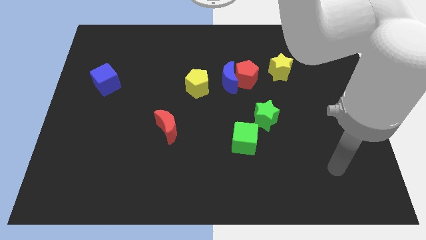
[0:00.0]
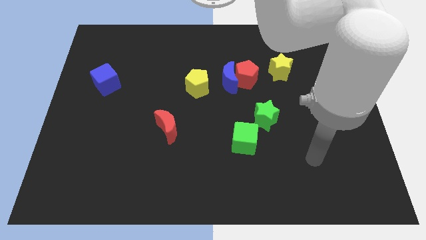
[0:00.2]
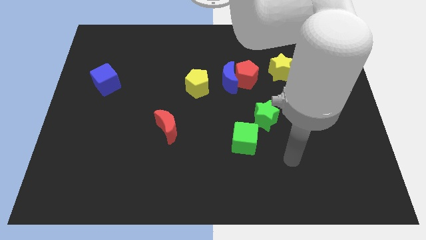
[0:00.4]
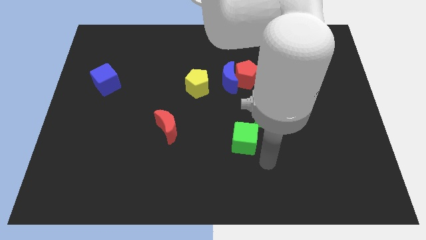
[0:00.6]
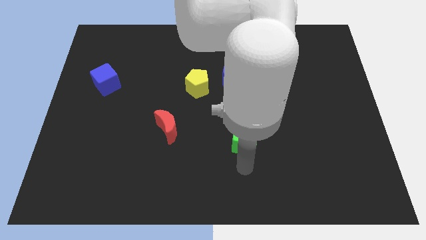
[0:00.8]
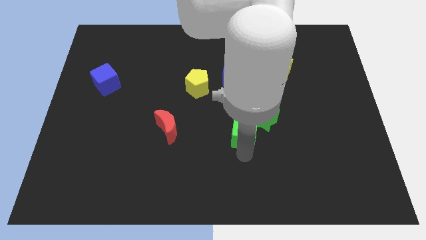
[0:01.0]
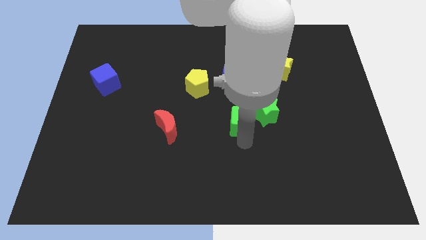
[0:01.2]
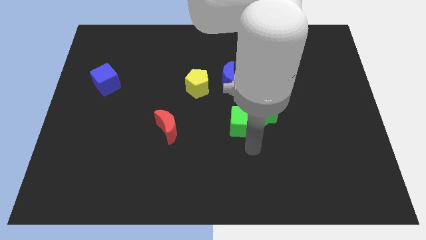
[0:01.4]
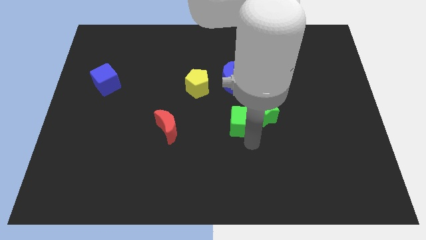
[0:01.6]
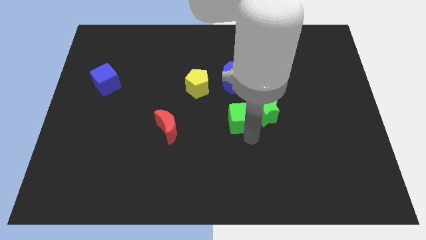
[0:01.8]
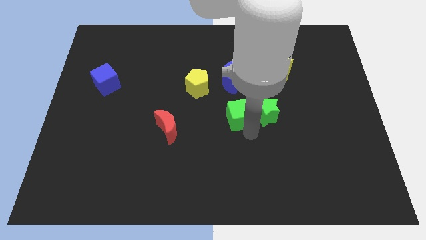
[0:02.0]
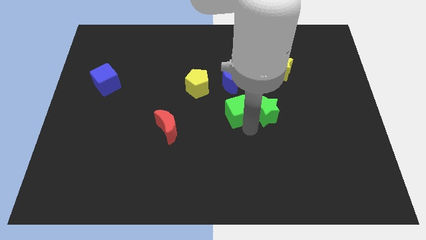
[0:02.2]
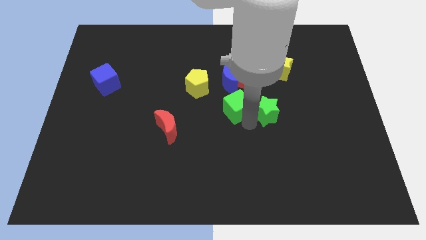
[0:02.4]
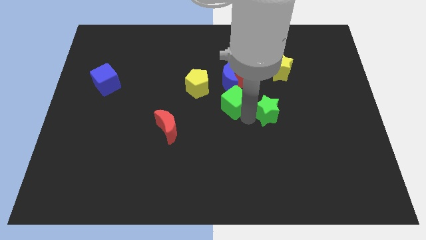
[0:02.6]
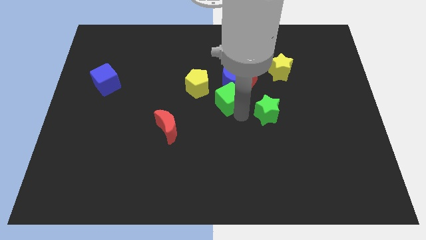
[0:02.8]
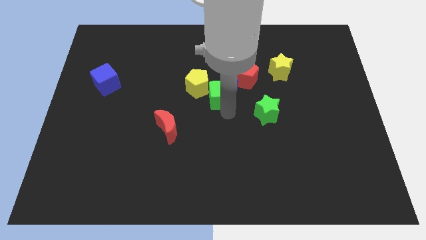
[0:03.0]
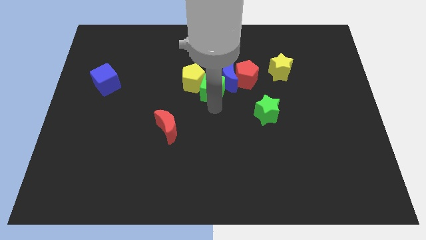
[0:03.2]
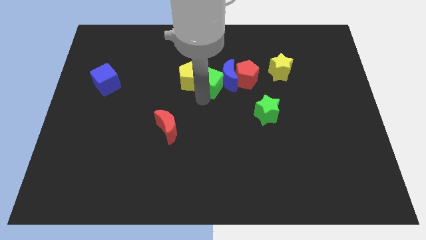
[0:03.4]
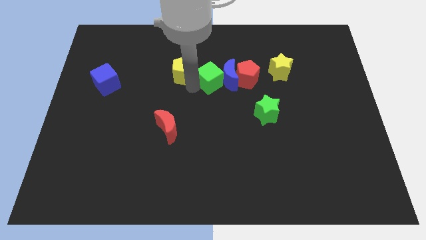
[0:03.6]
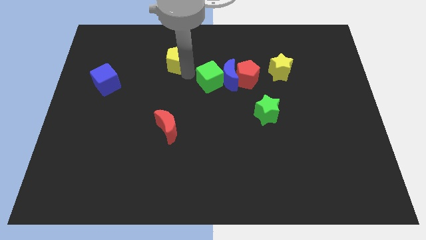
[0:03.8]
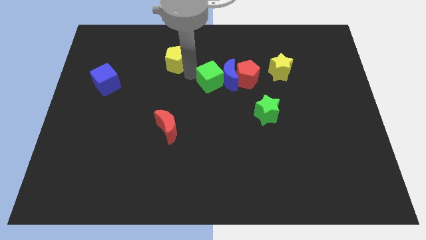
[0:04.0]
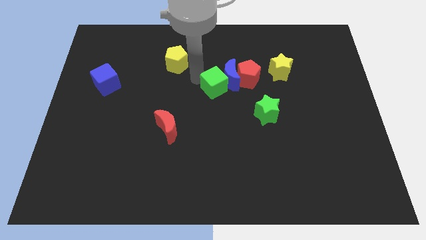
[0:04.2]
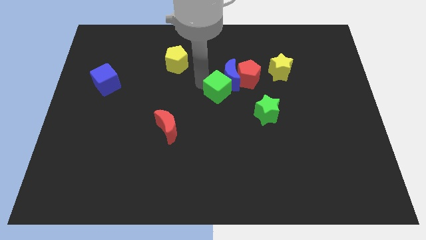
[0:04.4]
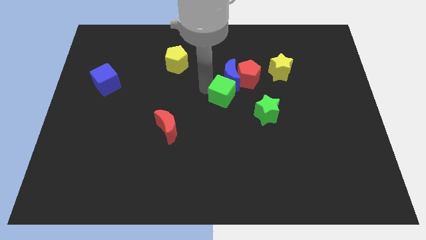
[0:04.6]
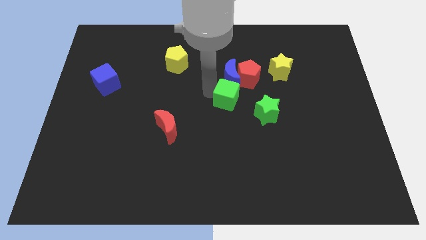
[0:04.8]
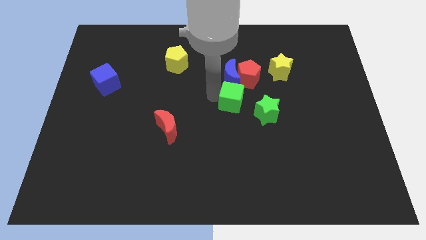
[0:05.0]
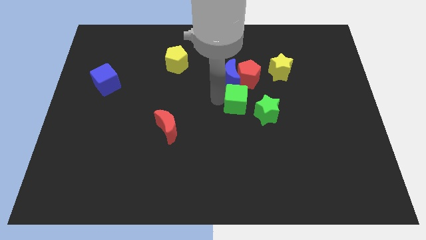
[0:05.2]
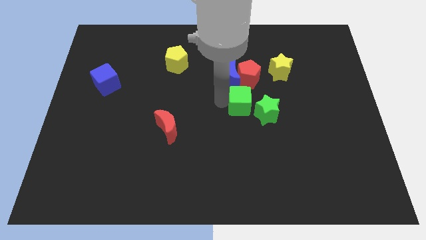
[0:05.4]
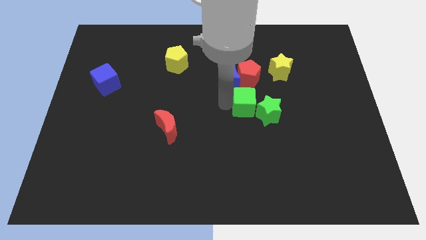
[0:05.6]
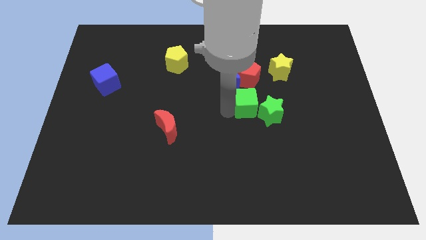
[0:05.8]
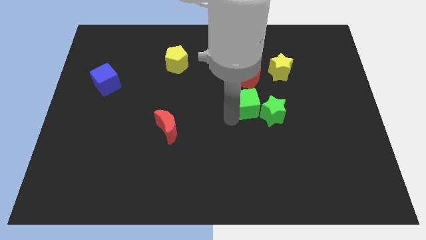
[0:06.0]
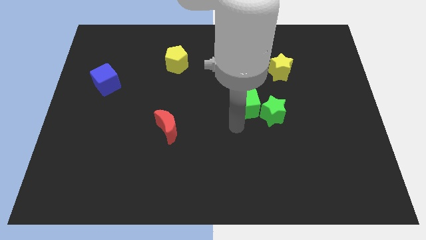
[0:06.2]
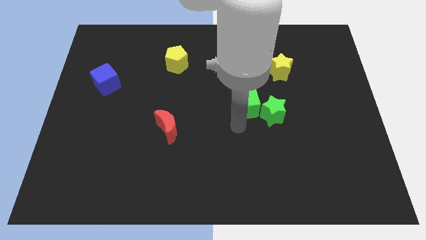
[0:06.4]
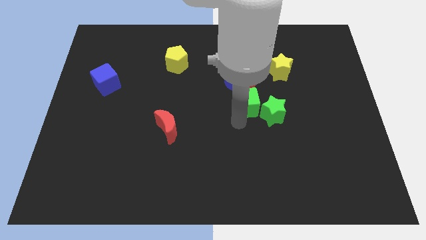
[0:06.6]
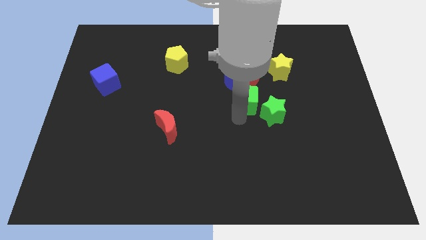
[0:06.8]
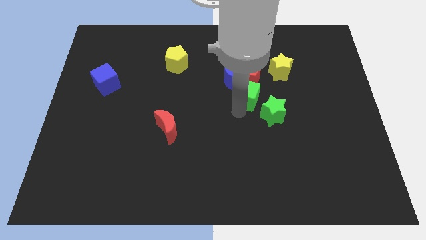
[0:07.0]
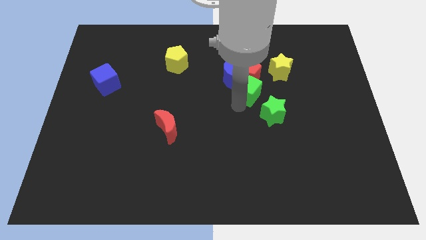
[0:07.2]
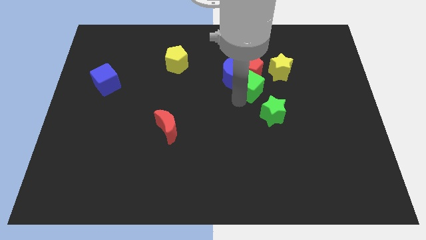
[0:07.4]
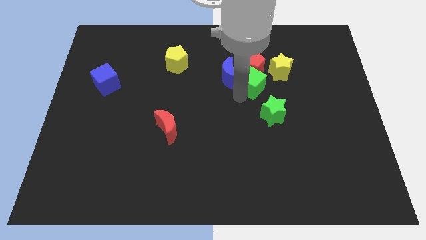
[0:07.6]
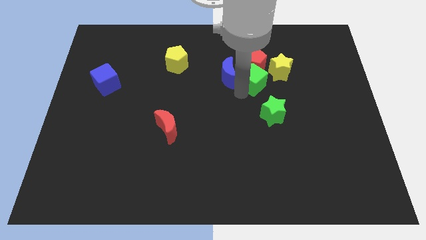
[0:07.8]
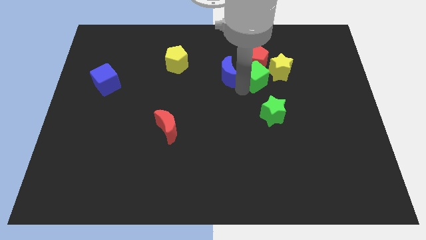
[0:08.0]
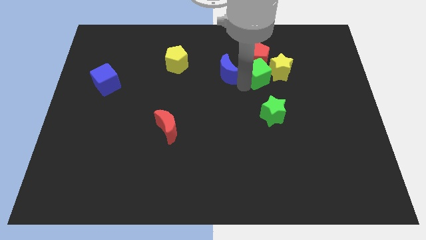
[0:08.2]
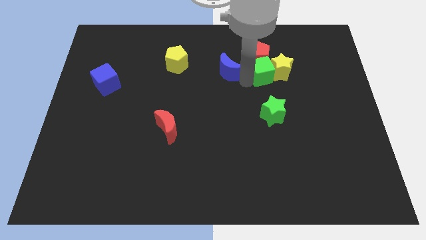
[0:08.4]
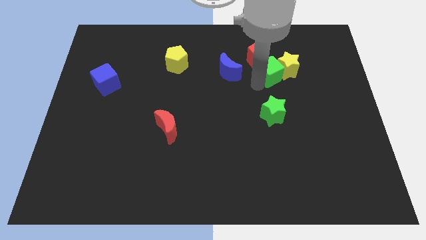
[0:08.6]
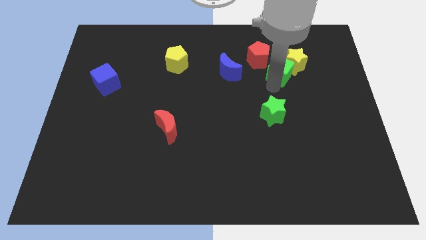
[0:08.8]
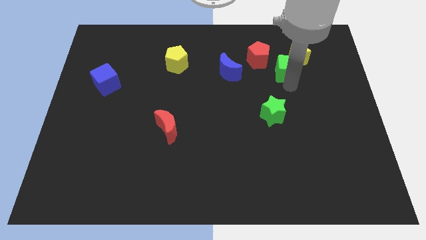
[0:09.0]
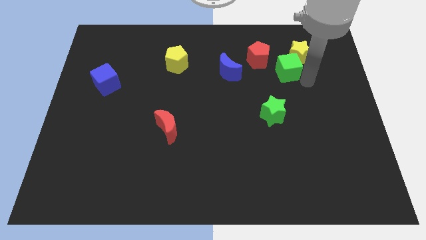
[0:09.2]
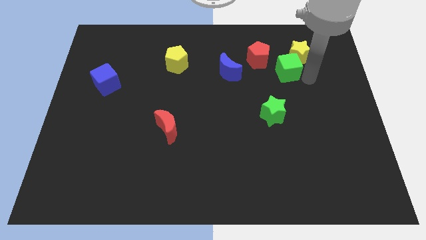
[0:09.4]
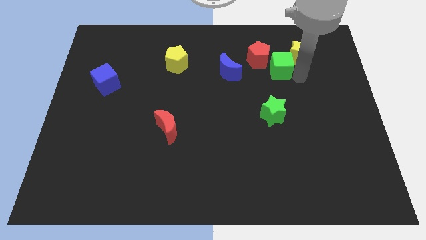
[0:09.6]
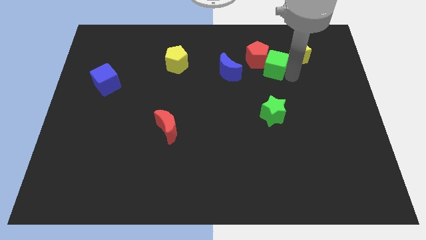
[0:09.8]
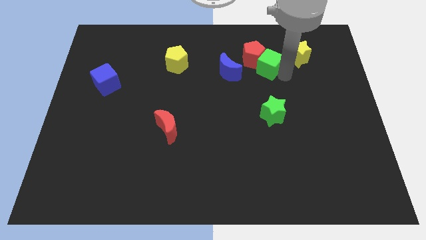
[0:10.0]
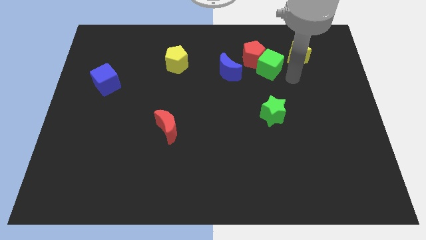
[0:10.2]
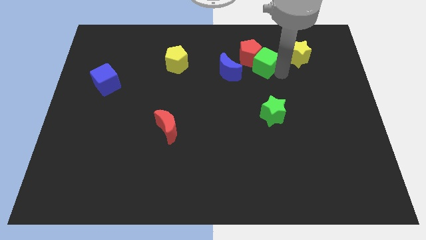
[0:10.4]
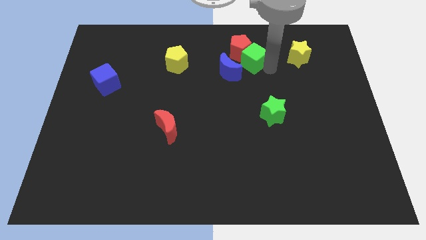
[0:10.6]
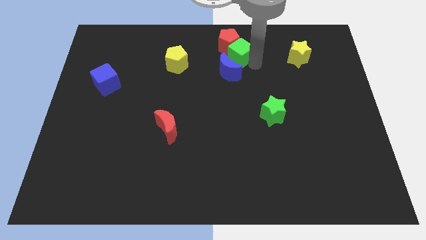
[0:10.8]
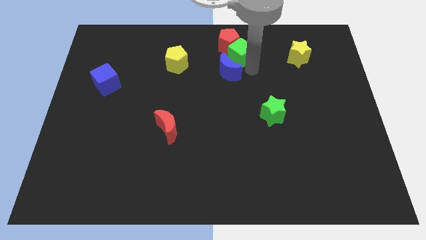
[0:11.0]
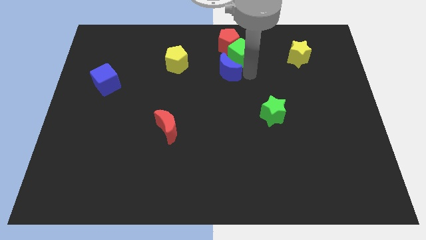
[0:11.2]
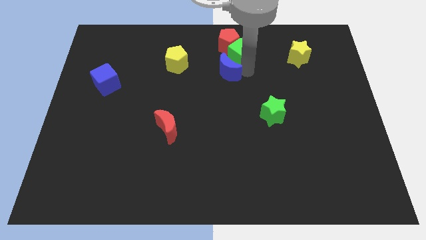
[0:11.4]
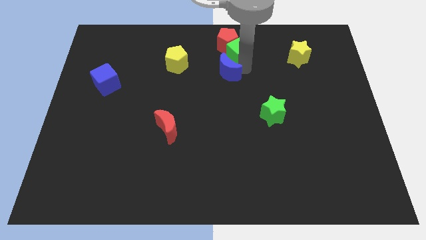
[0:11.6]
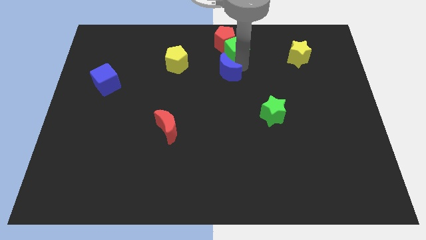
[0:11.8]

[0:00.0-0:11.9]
push the green cube to the top side
